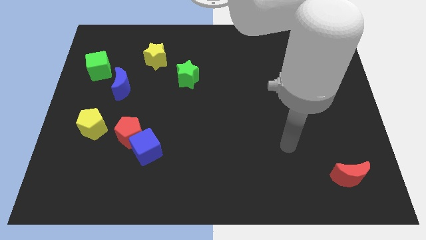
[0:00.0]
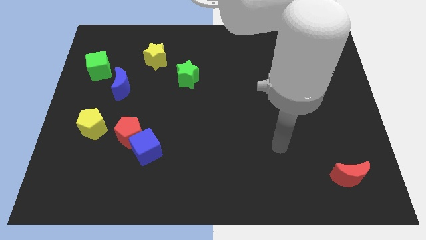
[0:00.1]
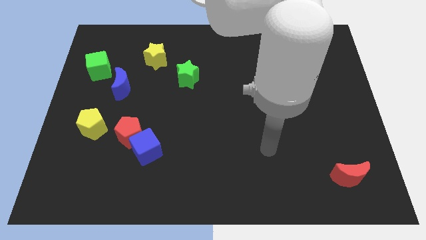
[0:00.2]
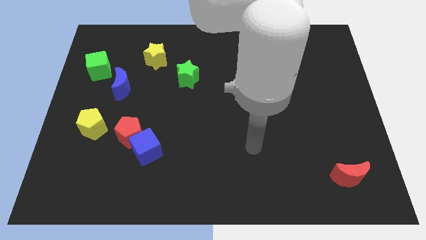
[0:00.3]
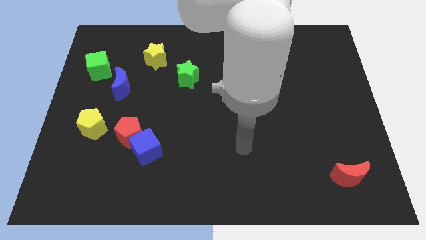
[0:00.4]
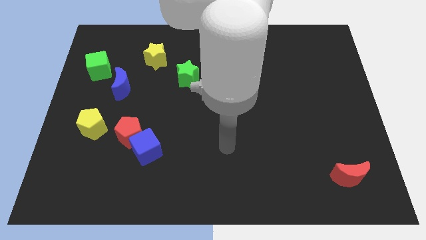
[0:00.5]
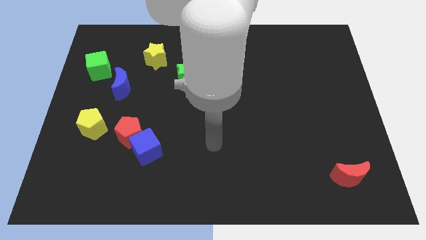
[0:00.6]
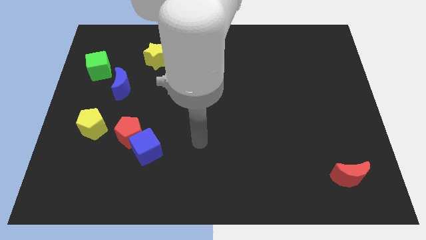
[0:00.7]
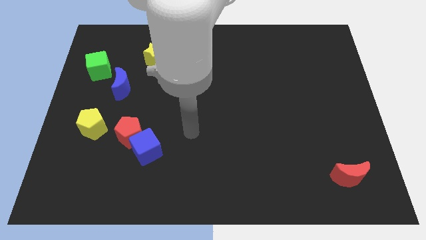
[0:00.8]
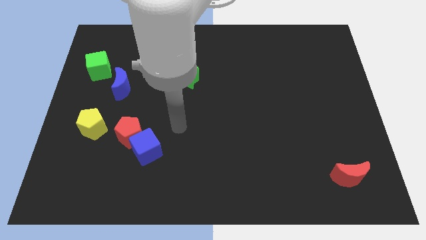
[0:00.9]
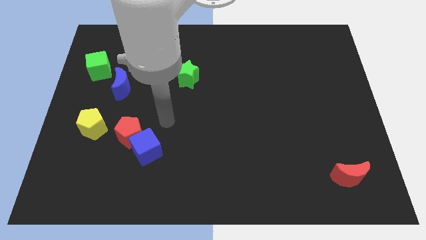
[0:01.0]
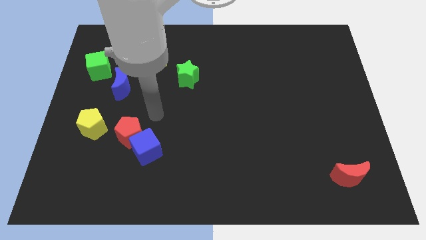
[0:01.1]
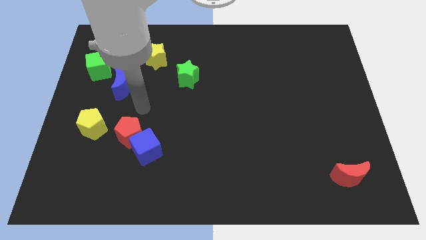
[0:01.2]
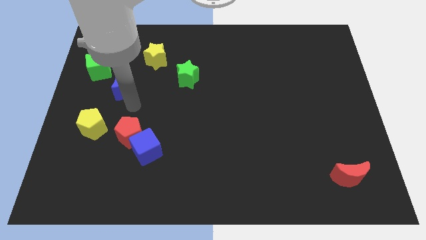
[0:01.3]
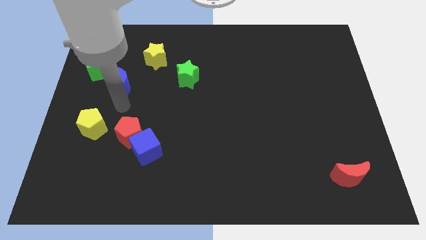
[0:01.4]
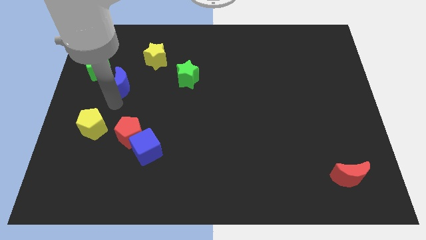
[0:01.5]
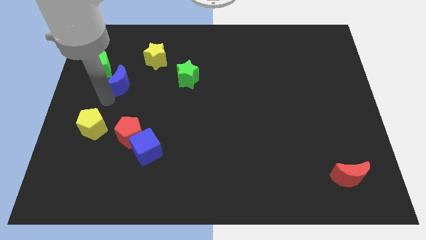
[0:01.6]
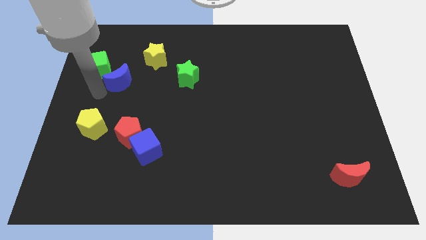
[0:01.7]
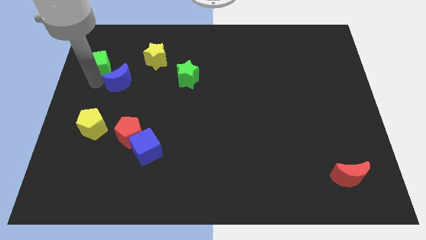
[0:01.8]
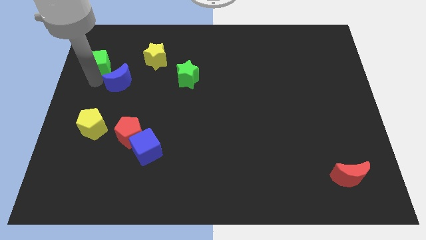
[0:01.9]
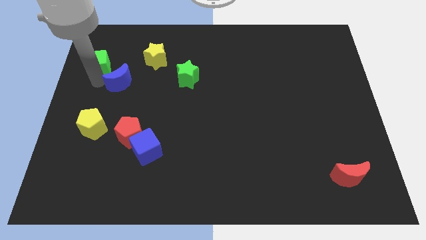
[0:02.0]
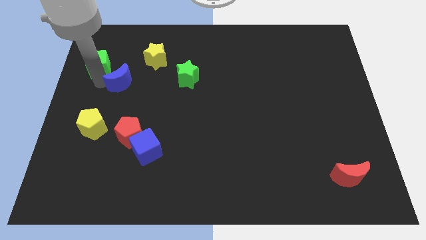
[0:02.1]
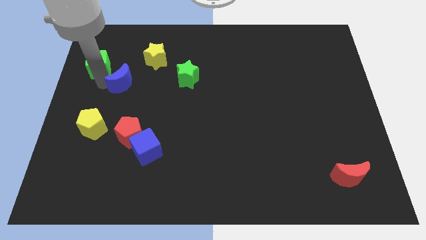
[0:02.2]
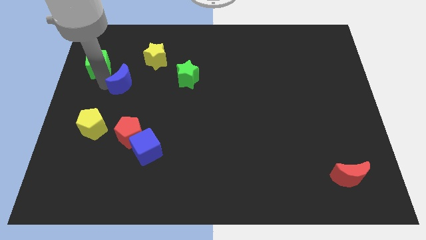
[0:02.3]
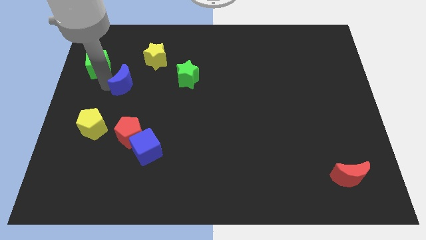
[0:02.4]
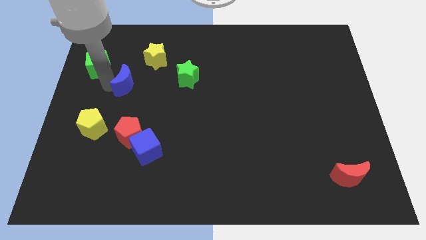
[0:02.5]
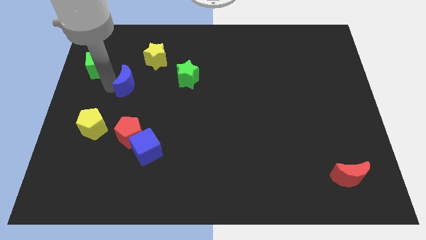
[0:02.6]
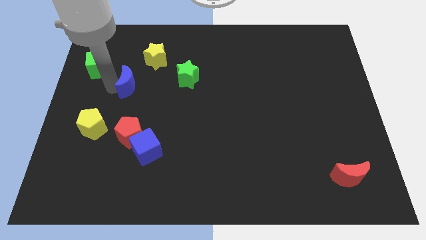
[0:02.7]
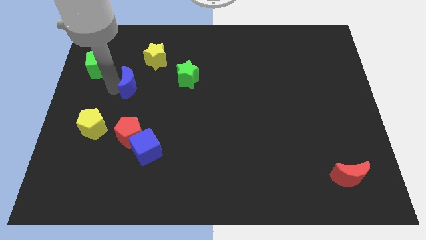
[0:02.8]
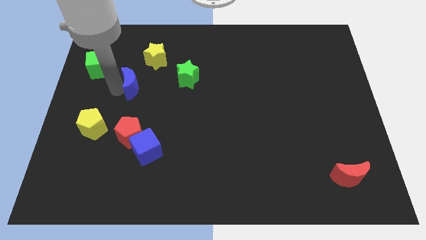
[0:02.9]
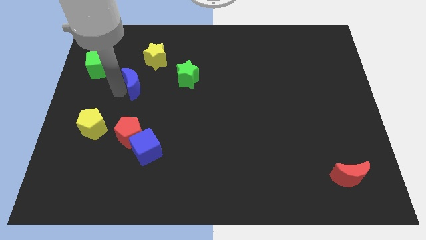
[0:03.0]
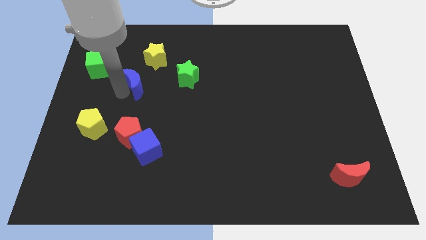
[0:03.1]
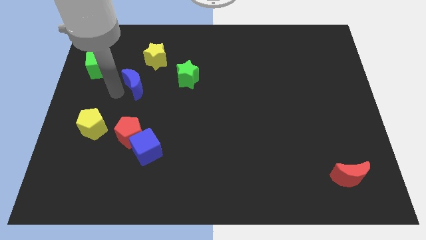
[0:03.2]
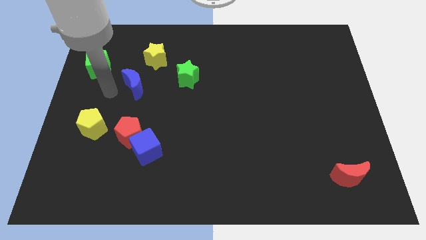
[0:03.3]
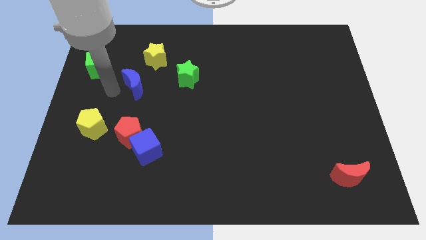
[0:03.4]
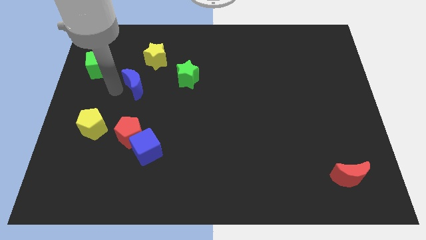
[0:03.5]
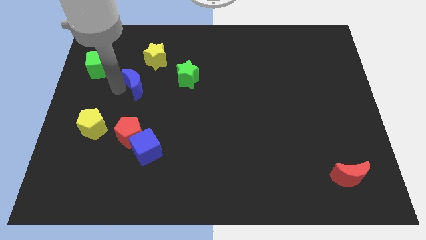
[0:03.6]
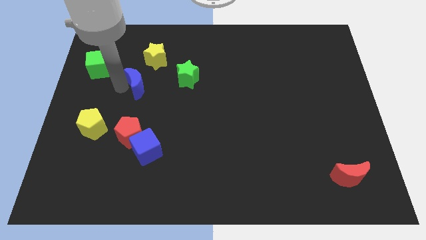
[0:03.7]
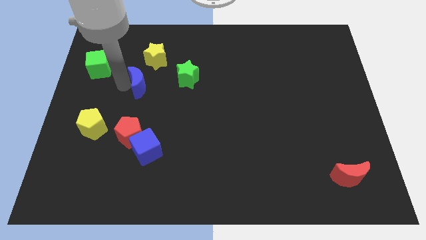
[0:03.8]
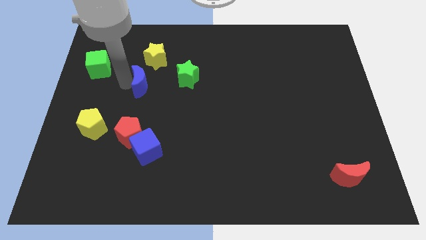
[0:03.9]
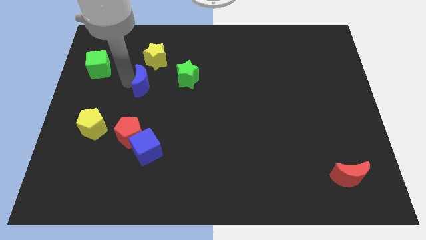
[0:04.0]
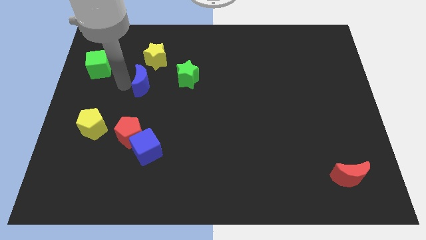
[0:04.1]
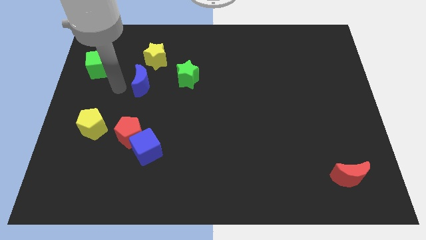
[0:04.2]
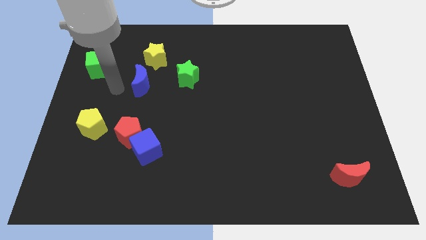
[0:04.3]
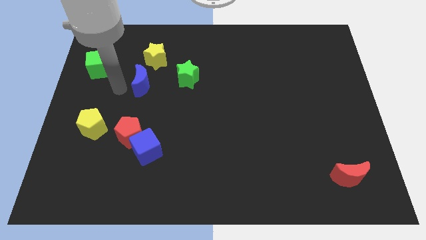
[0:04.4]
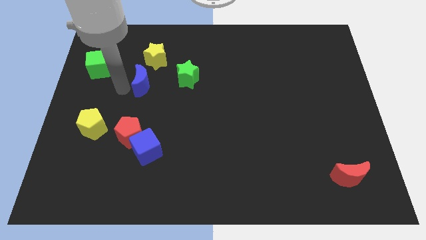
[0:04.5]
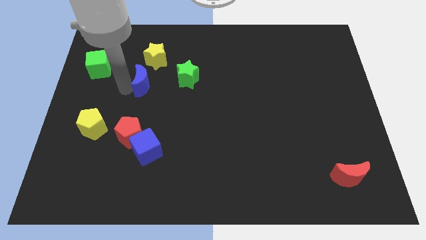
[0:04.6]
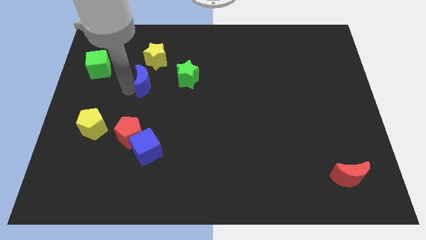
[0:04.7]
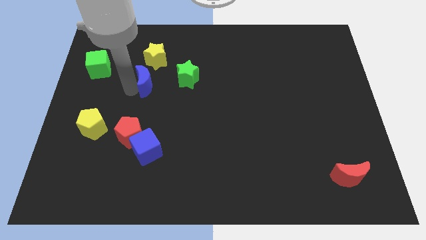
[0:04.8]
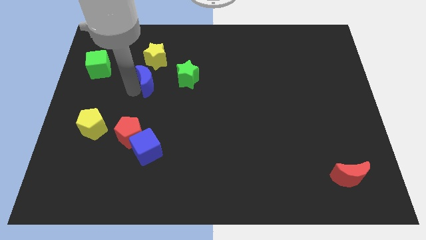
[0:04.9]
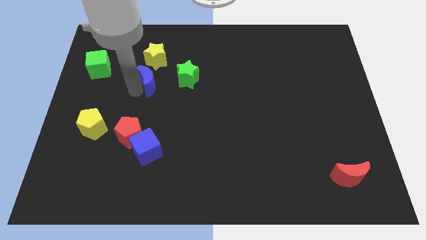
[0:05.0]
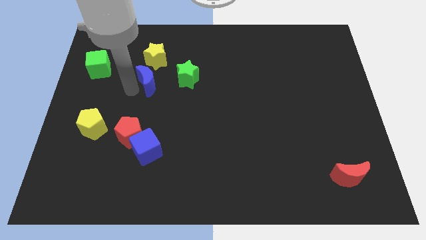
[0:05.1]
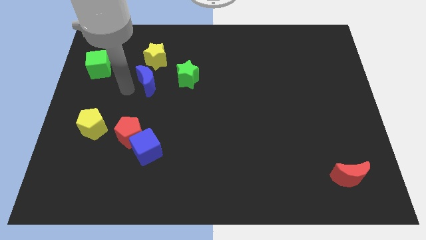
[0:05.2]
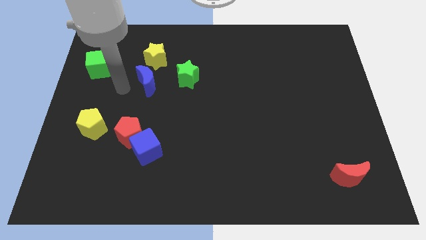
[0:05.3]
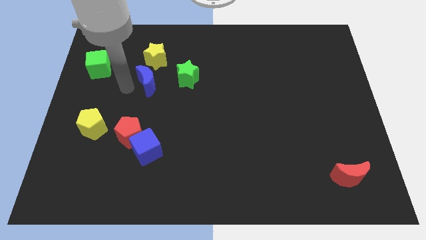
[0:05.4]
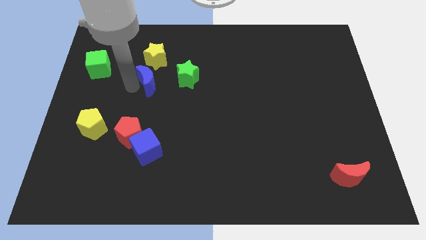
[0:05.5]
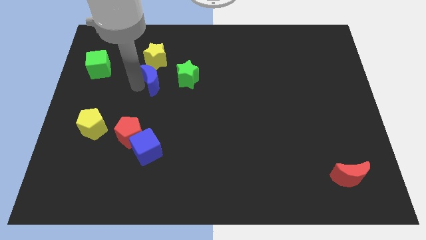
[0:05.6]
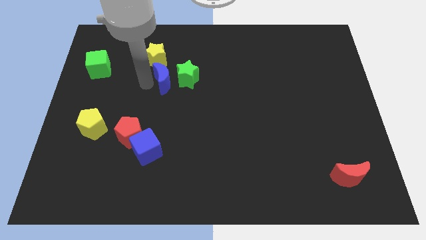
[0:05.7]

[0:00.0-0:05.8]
put the blue moon close to the green star

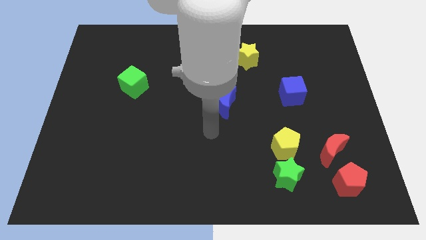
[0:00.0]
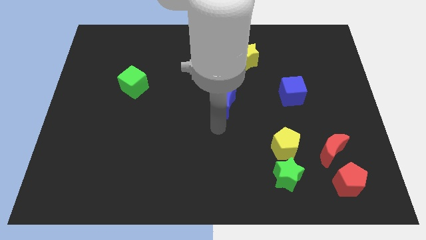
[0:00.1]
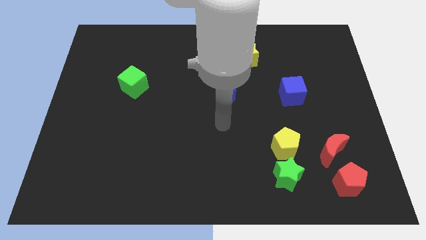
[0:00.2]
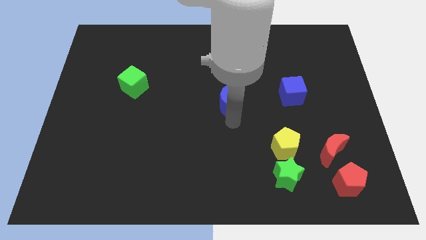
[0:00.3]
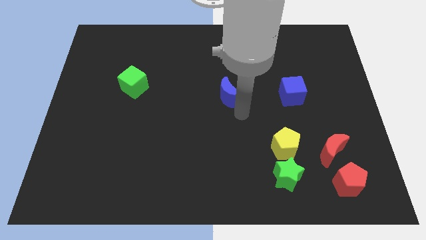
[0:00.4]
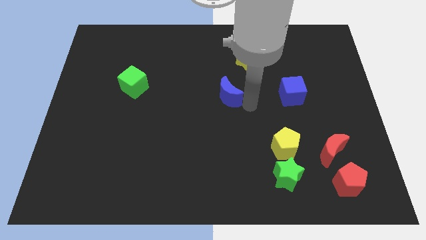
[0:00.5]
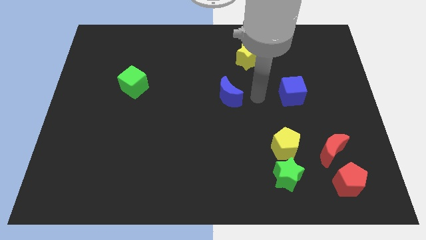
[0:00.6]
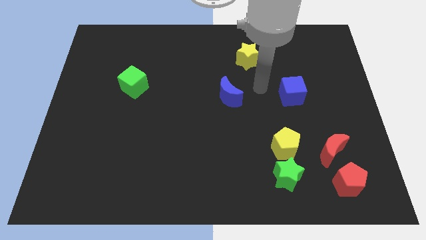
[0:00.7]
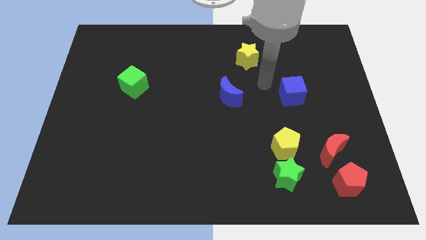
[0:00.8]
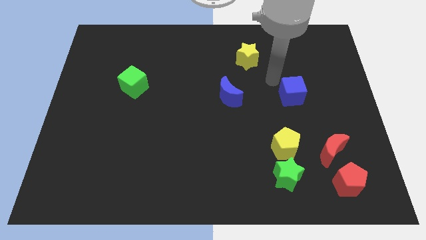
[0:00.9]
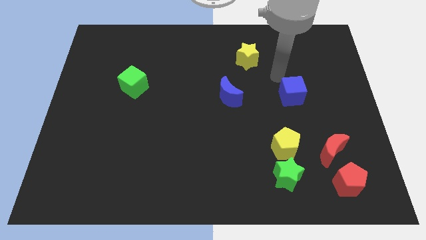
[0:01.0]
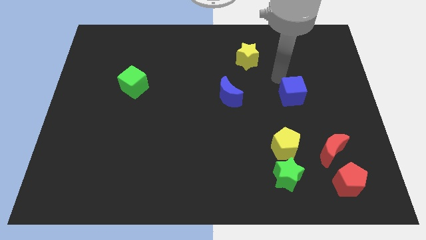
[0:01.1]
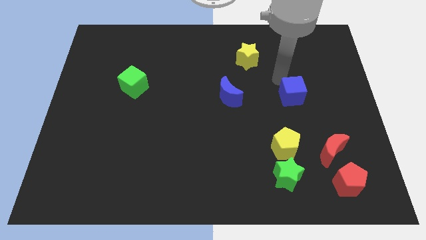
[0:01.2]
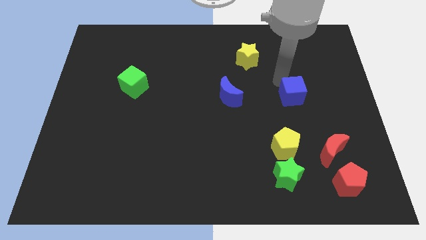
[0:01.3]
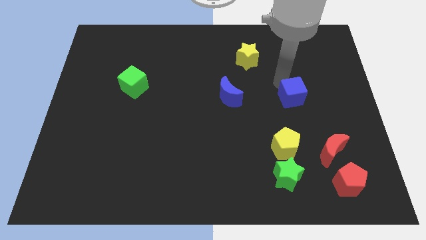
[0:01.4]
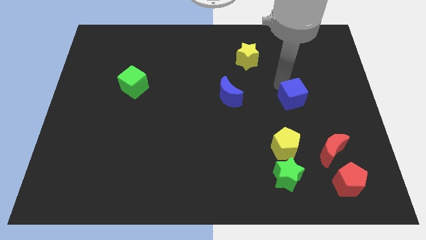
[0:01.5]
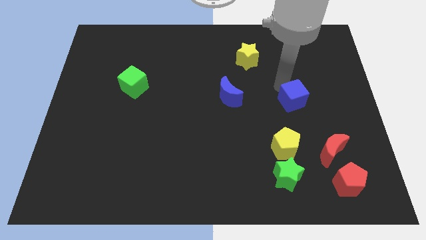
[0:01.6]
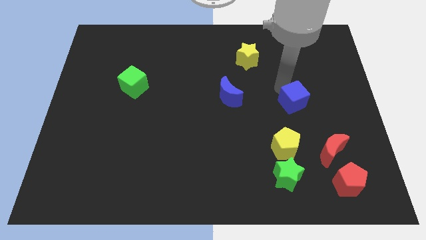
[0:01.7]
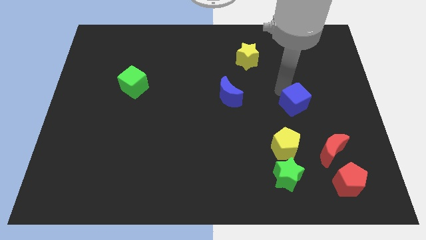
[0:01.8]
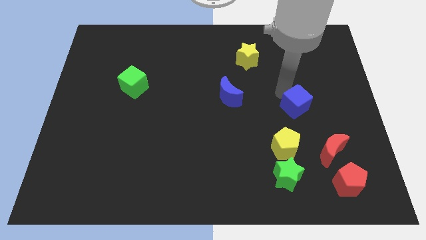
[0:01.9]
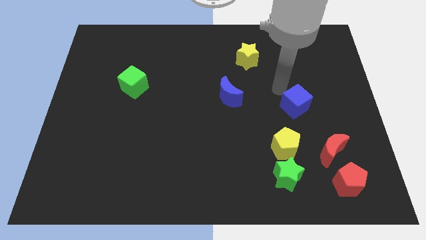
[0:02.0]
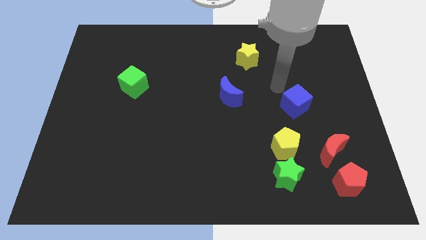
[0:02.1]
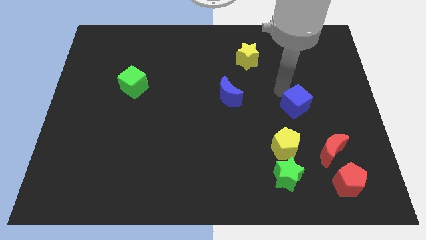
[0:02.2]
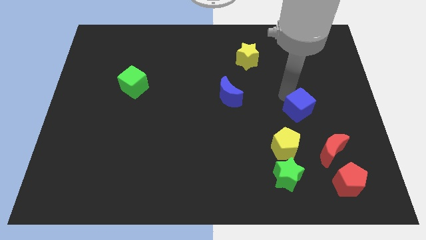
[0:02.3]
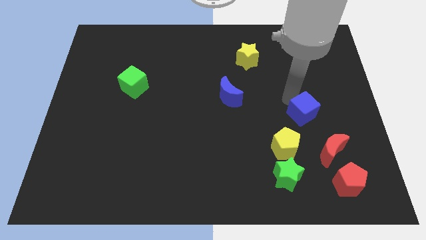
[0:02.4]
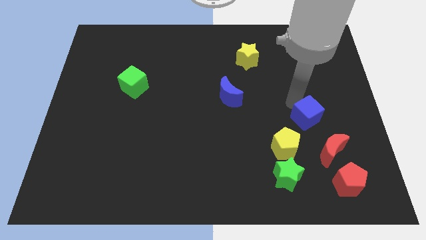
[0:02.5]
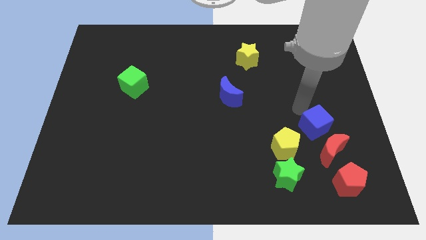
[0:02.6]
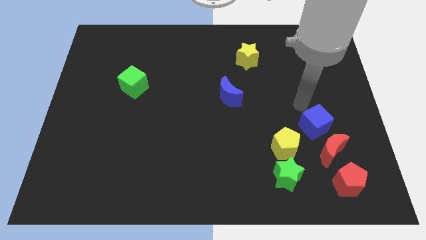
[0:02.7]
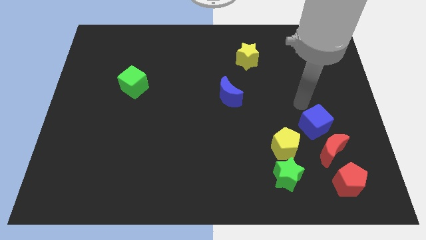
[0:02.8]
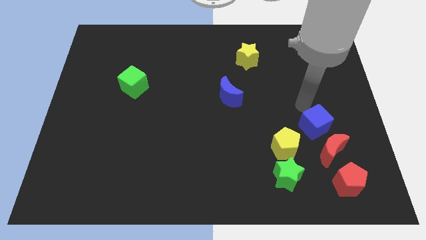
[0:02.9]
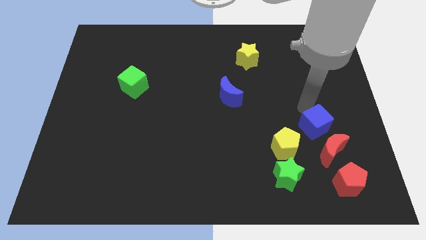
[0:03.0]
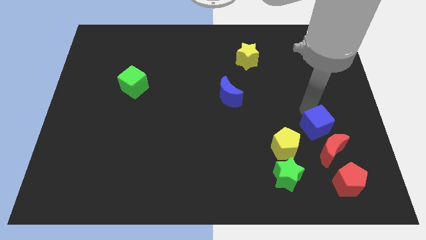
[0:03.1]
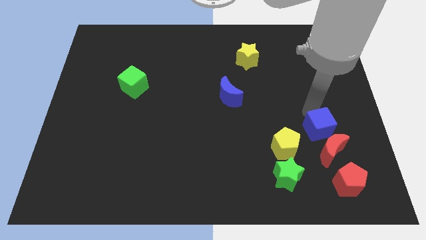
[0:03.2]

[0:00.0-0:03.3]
push the blue cube close to the red moon
